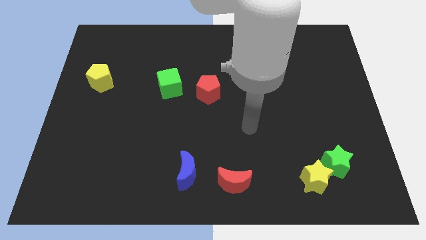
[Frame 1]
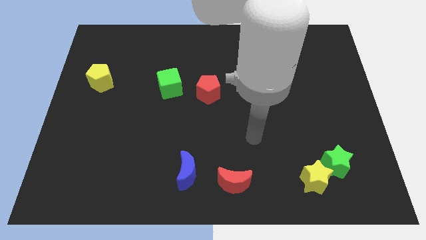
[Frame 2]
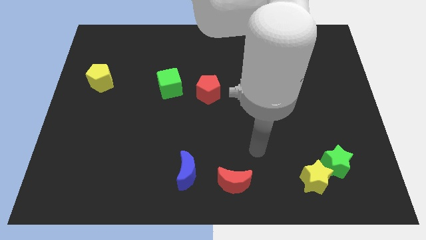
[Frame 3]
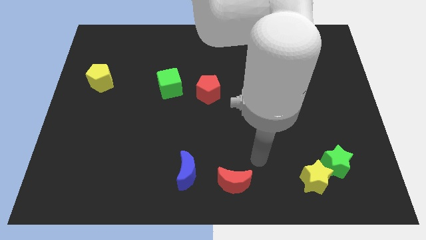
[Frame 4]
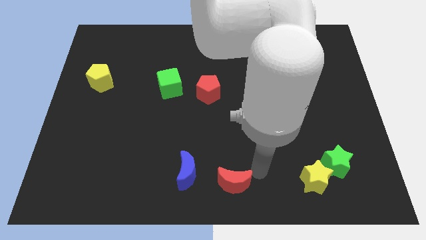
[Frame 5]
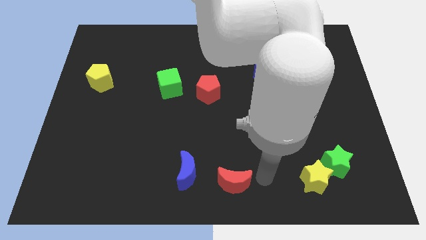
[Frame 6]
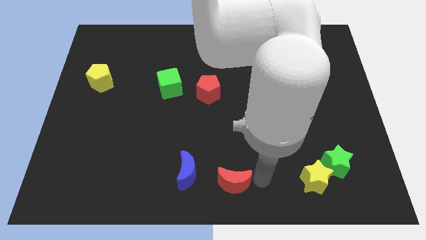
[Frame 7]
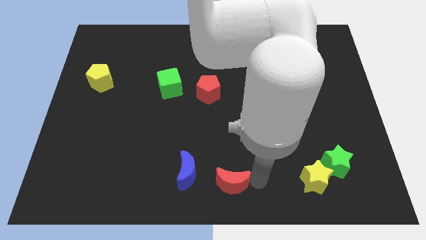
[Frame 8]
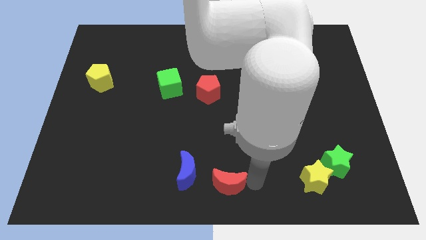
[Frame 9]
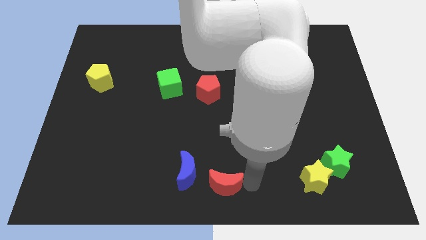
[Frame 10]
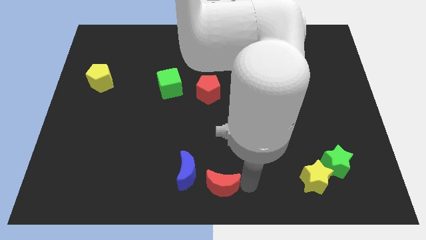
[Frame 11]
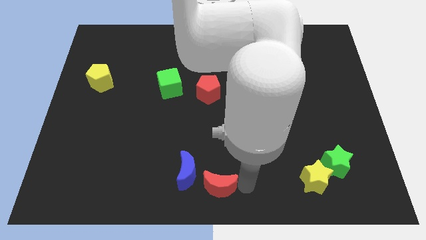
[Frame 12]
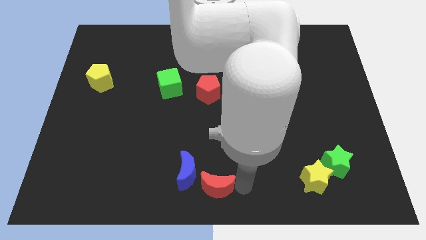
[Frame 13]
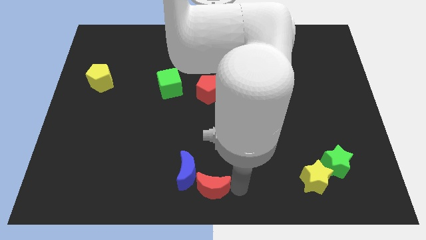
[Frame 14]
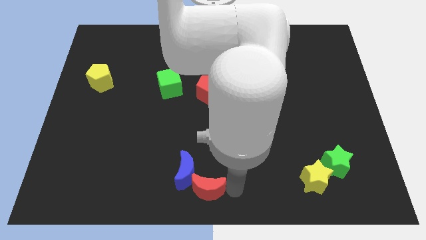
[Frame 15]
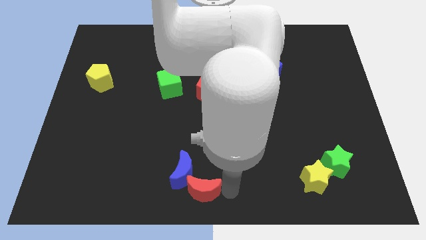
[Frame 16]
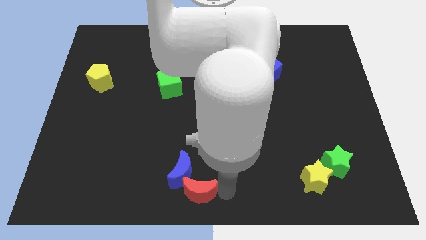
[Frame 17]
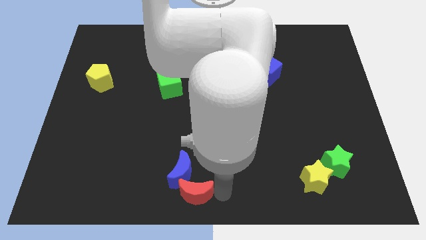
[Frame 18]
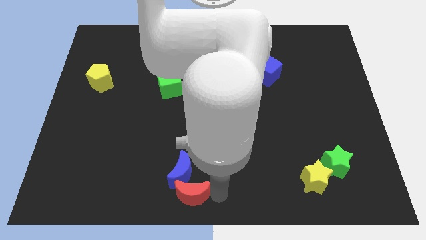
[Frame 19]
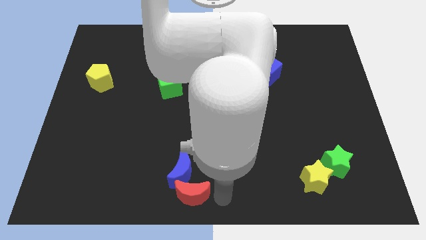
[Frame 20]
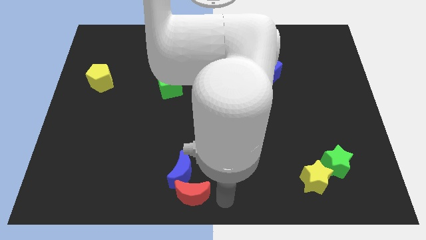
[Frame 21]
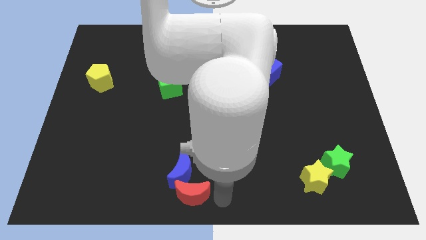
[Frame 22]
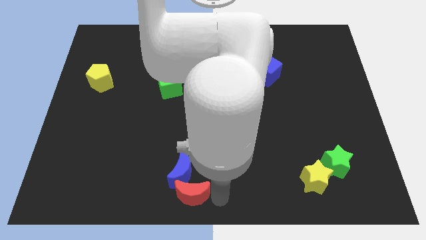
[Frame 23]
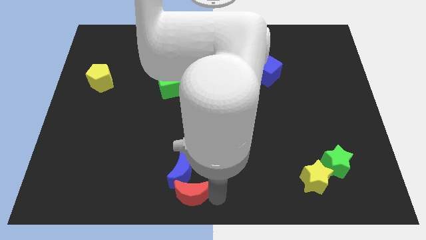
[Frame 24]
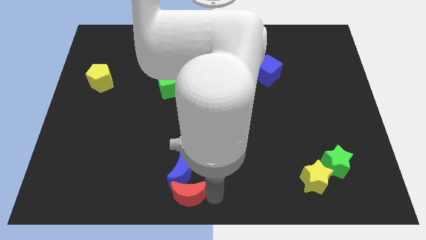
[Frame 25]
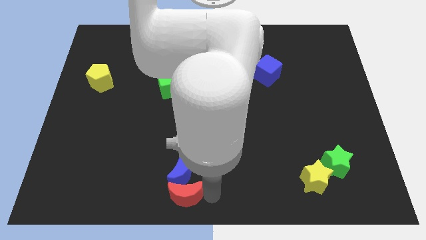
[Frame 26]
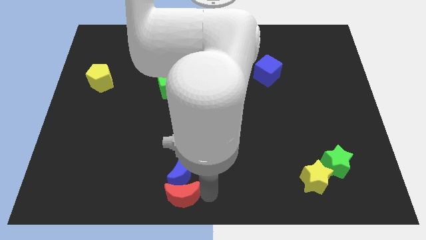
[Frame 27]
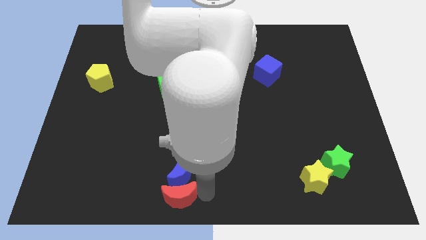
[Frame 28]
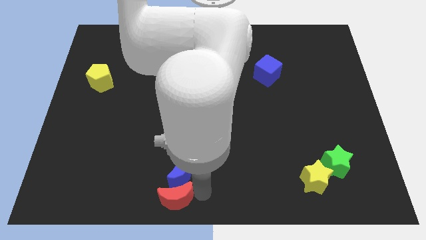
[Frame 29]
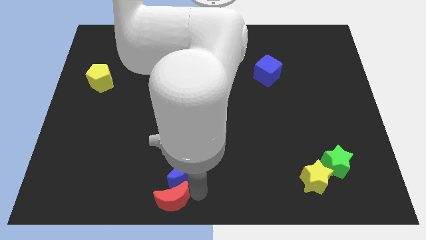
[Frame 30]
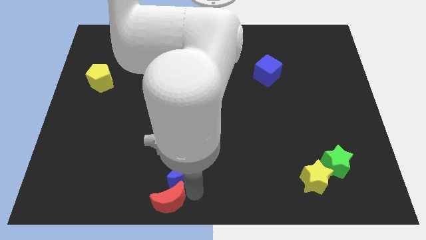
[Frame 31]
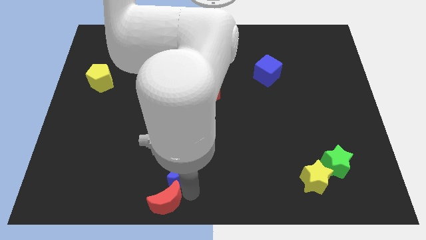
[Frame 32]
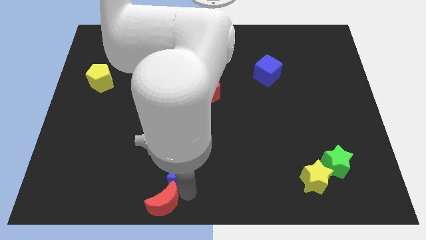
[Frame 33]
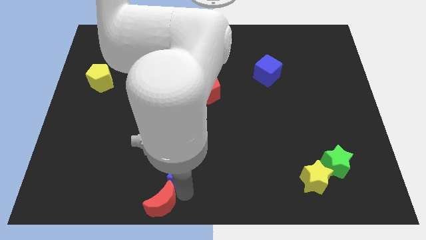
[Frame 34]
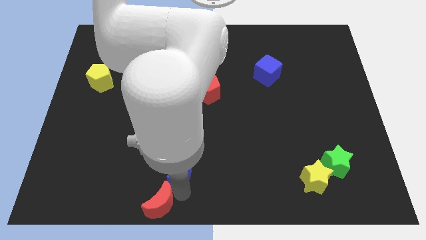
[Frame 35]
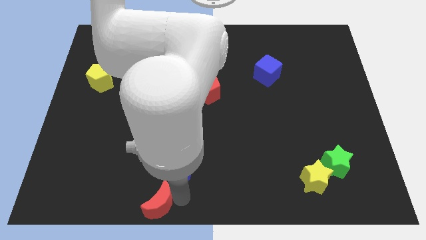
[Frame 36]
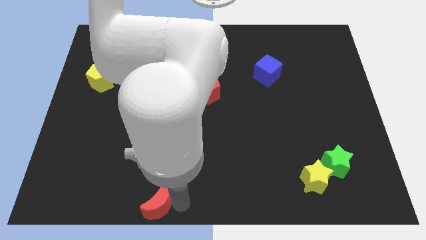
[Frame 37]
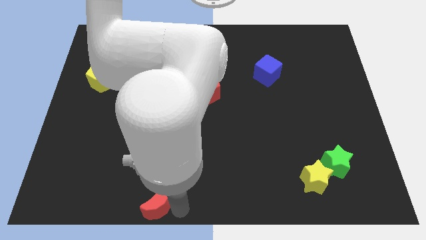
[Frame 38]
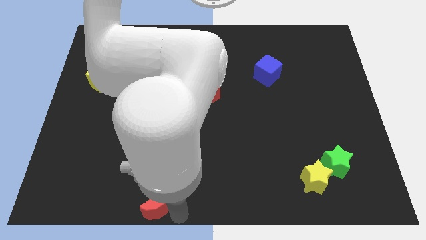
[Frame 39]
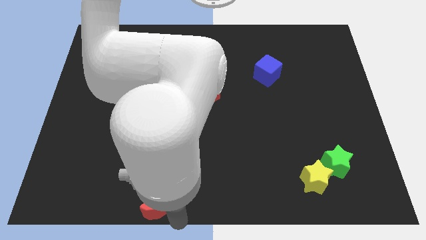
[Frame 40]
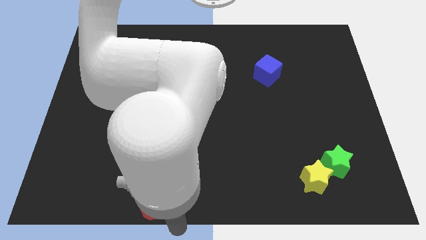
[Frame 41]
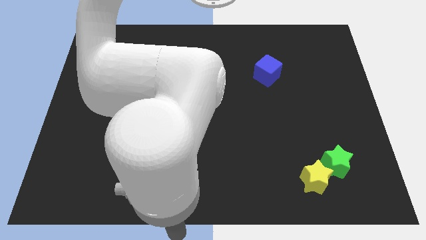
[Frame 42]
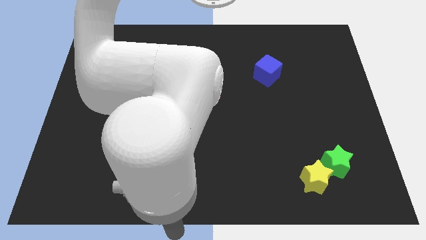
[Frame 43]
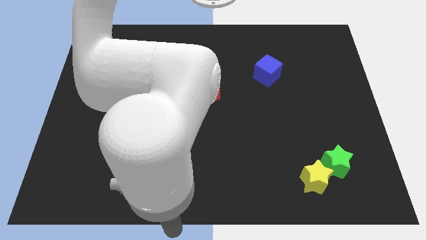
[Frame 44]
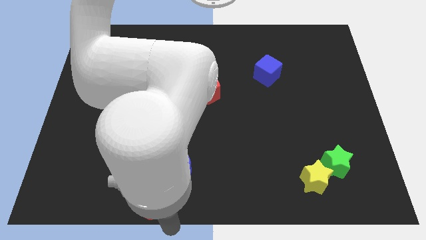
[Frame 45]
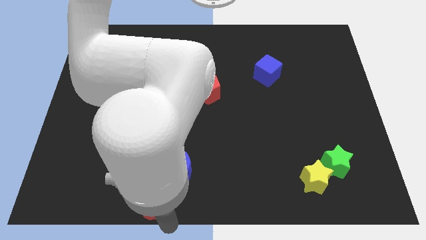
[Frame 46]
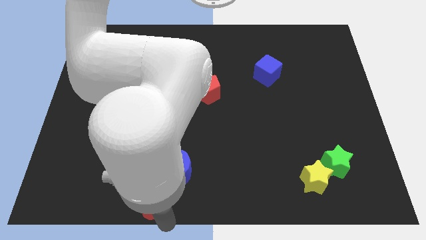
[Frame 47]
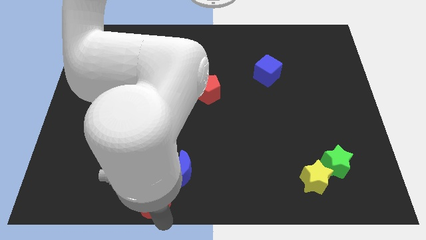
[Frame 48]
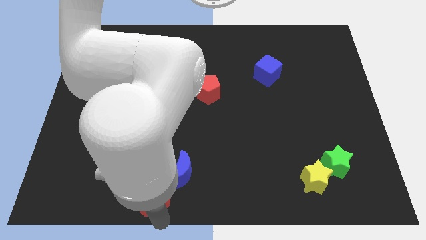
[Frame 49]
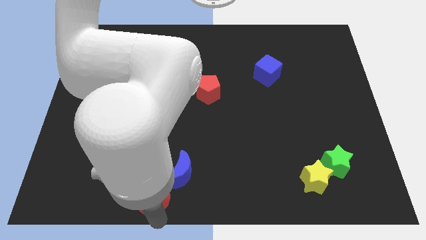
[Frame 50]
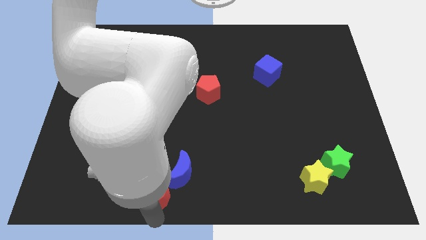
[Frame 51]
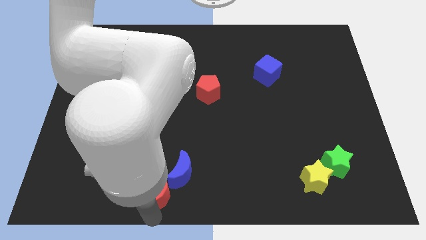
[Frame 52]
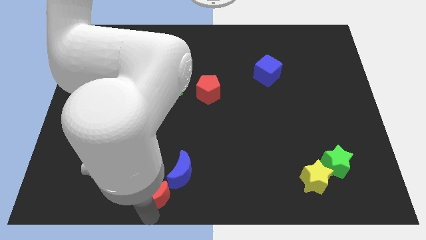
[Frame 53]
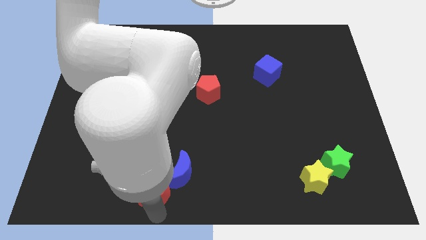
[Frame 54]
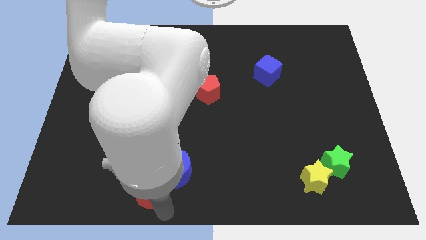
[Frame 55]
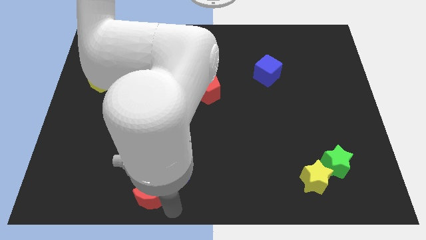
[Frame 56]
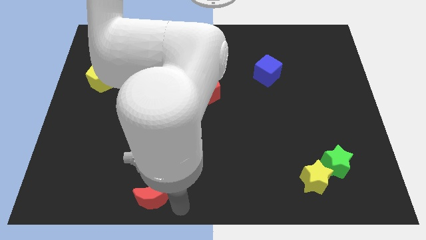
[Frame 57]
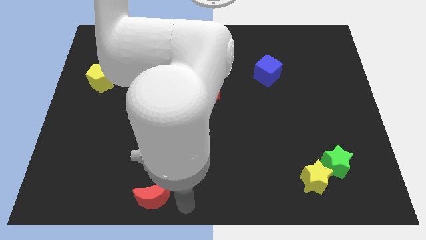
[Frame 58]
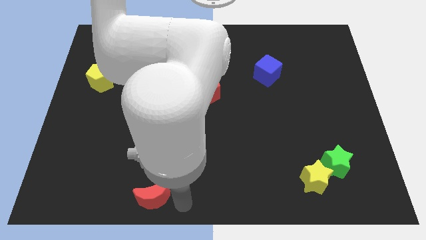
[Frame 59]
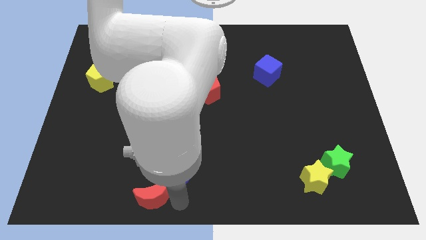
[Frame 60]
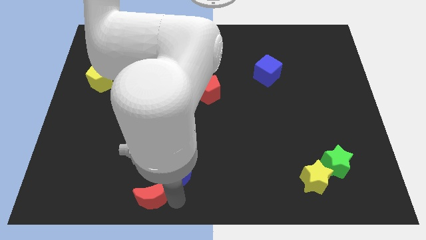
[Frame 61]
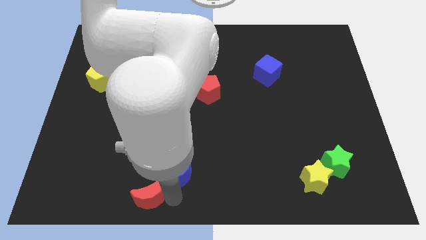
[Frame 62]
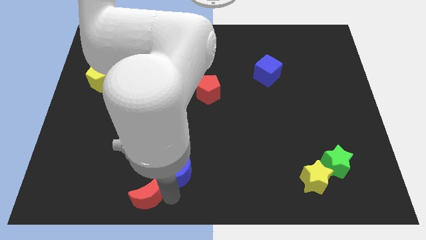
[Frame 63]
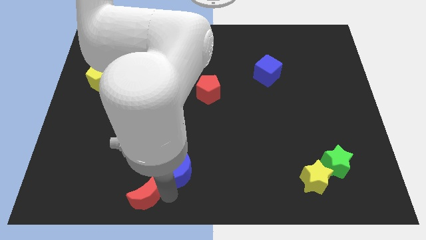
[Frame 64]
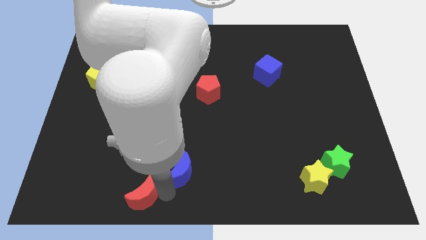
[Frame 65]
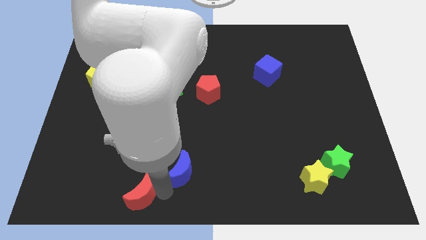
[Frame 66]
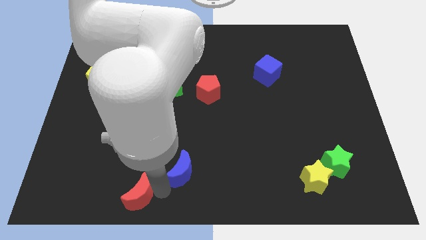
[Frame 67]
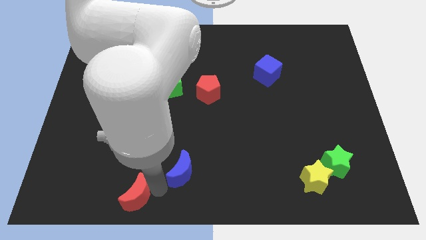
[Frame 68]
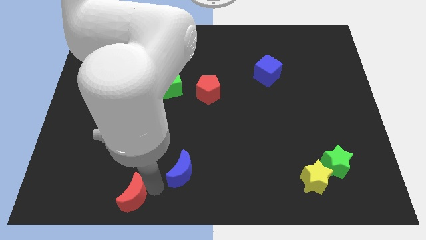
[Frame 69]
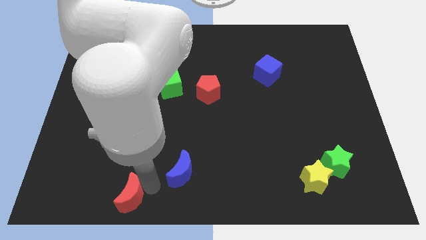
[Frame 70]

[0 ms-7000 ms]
move the red moon to the left

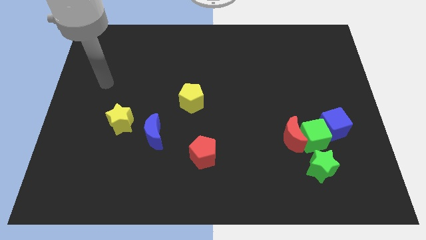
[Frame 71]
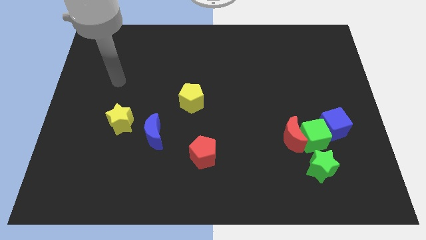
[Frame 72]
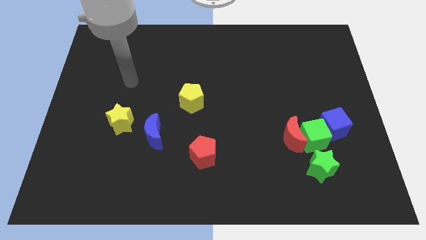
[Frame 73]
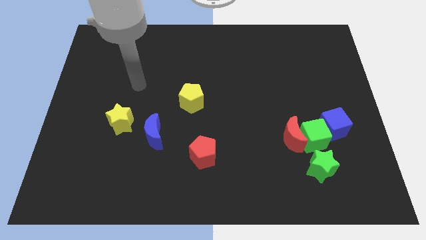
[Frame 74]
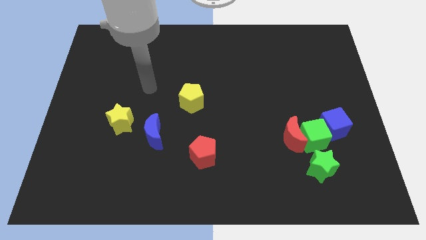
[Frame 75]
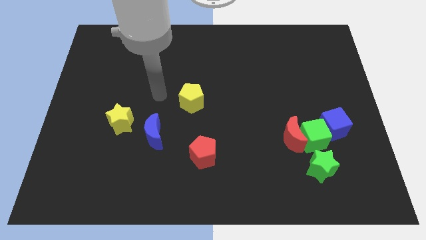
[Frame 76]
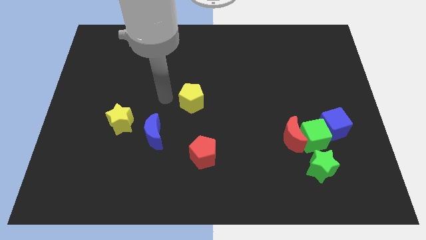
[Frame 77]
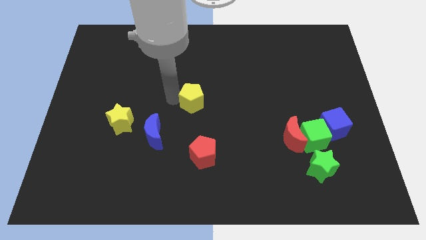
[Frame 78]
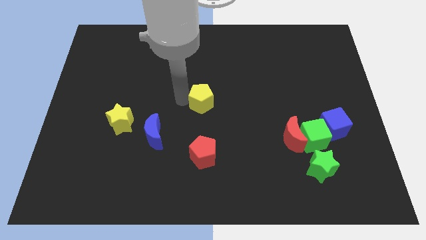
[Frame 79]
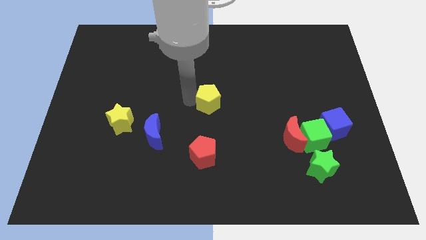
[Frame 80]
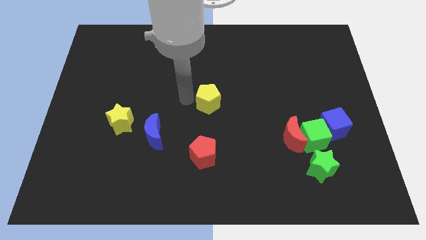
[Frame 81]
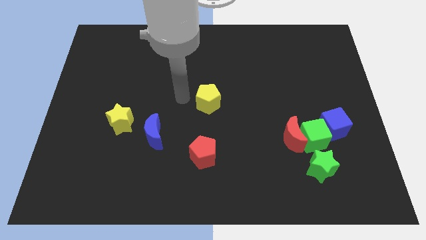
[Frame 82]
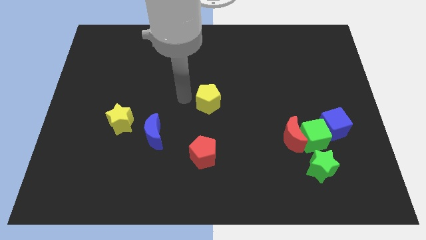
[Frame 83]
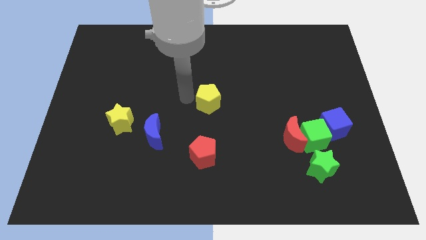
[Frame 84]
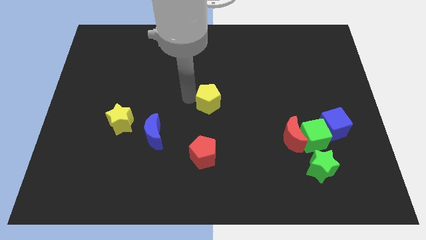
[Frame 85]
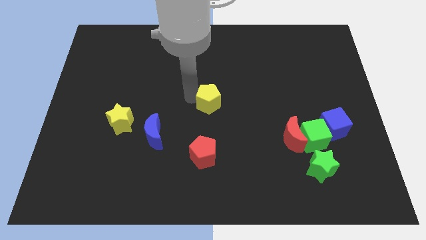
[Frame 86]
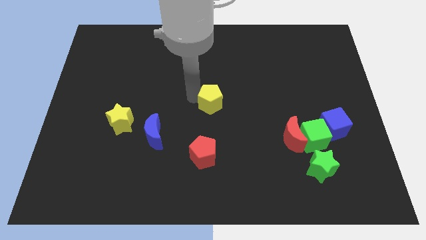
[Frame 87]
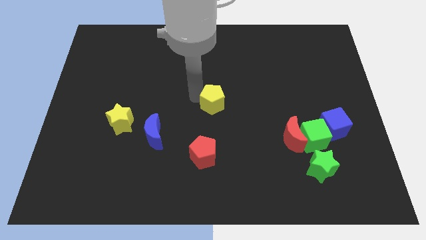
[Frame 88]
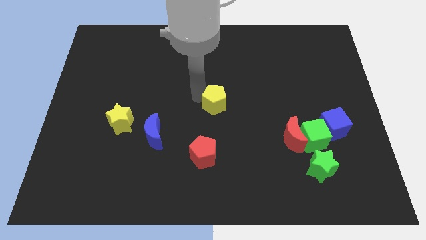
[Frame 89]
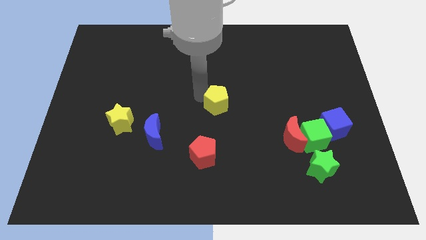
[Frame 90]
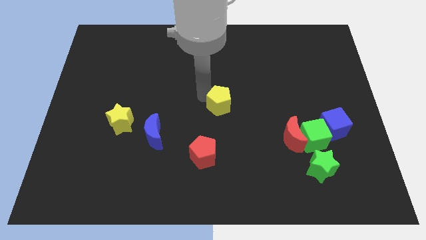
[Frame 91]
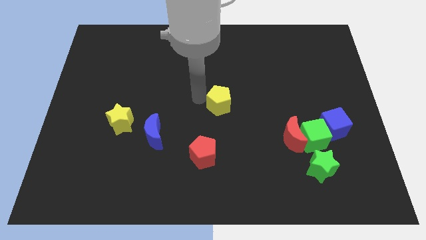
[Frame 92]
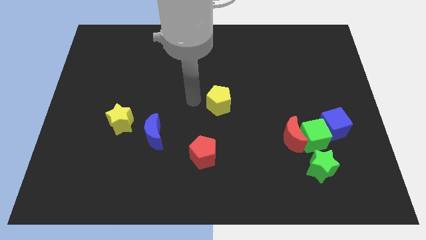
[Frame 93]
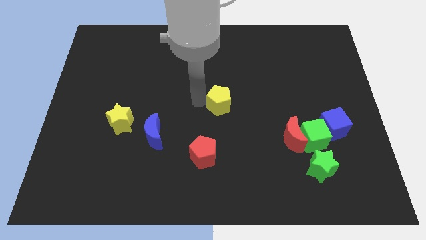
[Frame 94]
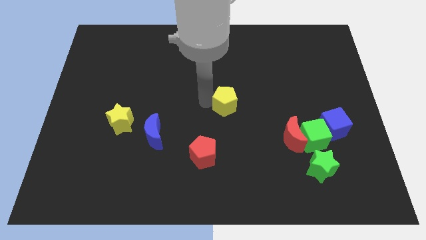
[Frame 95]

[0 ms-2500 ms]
slightly move the yellow pentagon right
